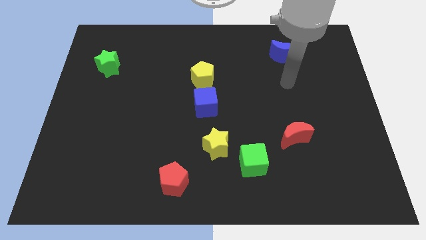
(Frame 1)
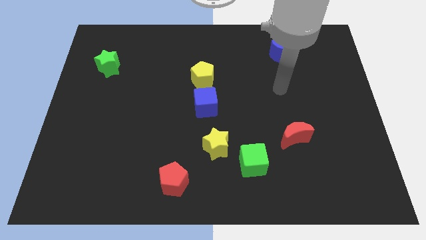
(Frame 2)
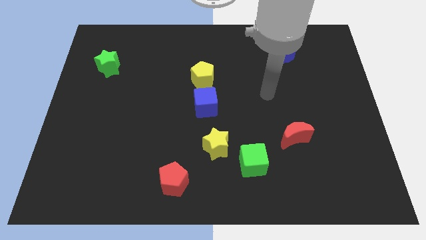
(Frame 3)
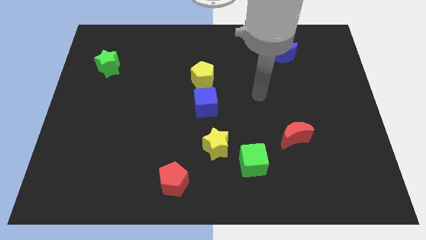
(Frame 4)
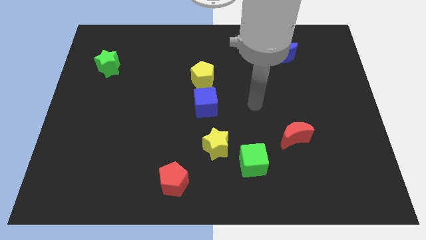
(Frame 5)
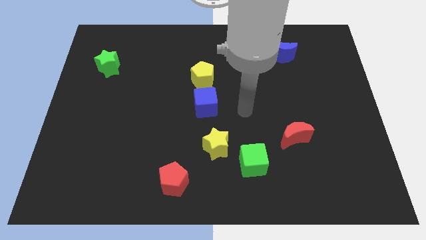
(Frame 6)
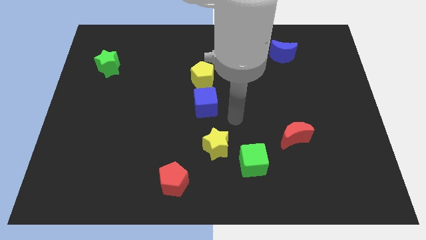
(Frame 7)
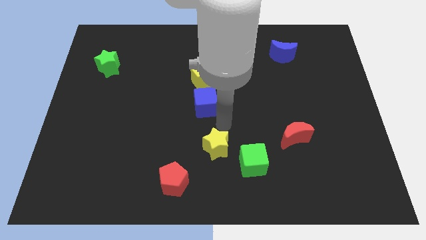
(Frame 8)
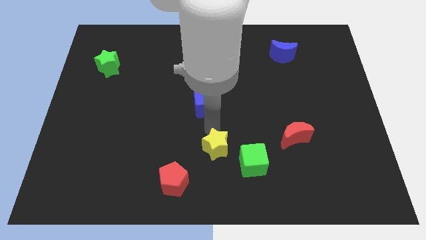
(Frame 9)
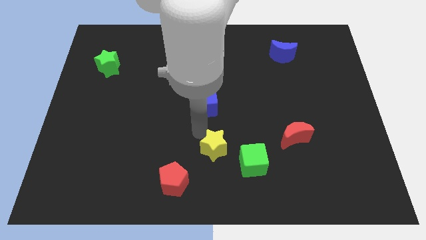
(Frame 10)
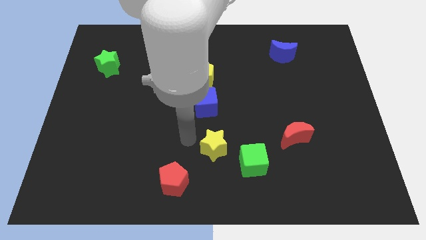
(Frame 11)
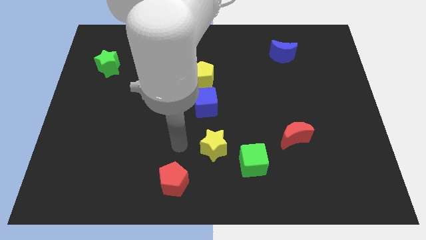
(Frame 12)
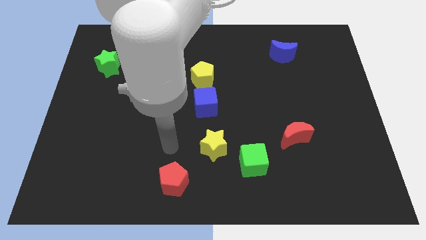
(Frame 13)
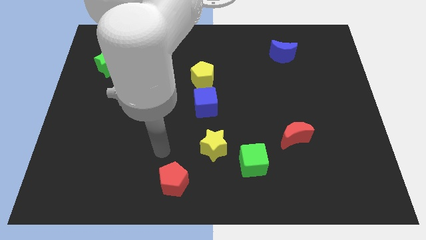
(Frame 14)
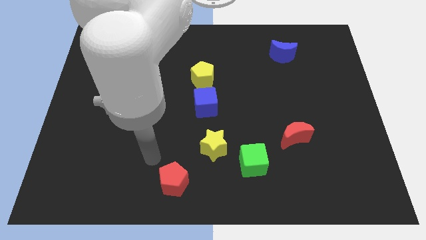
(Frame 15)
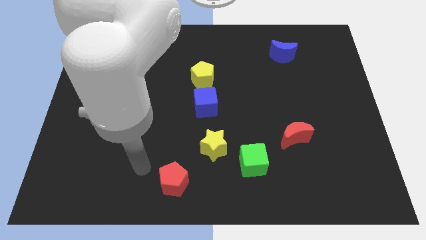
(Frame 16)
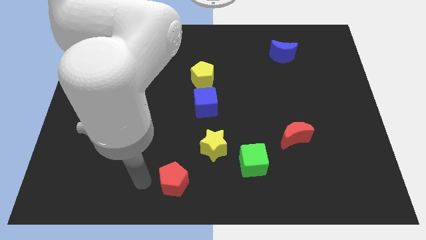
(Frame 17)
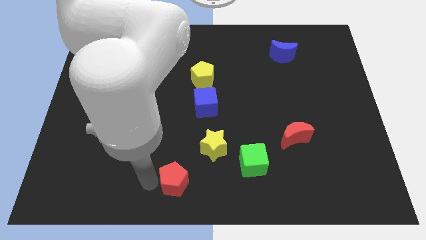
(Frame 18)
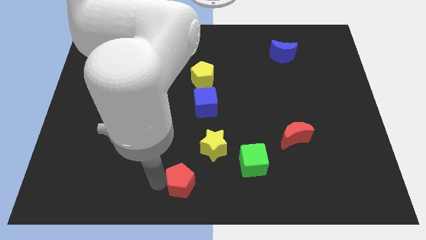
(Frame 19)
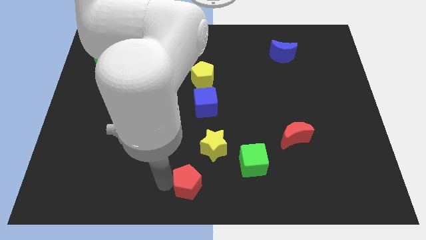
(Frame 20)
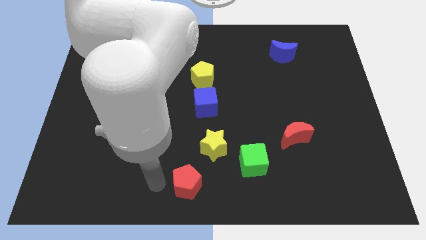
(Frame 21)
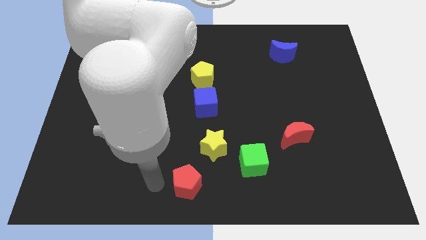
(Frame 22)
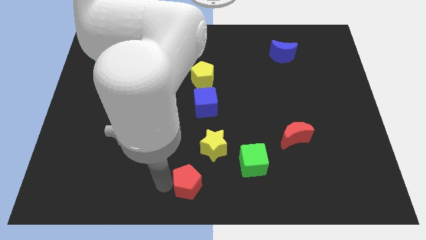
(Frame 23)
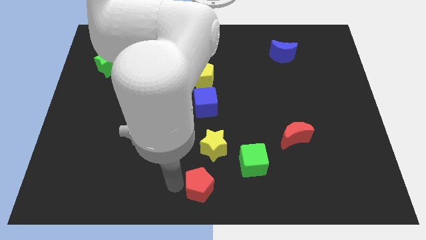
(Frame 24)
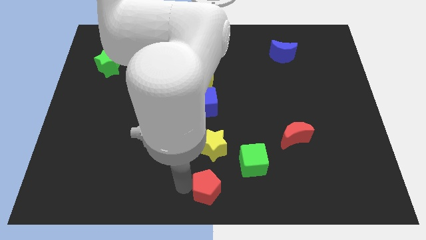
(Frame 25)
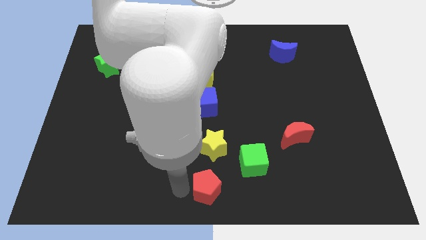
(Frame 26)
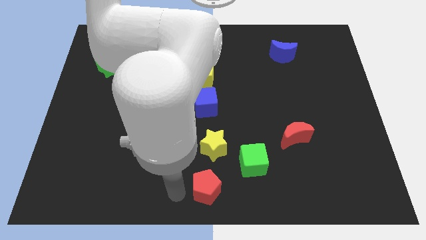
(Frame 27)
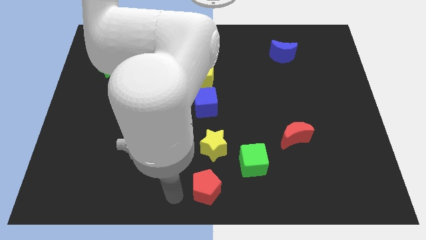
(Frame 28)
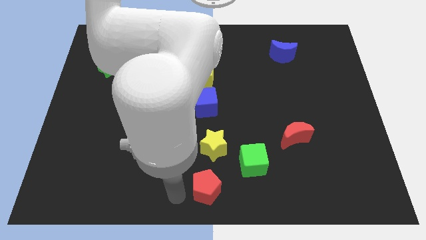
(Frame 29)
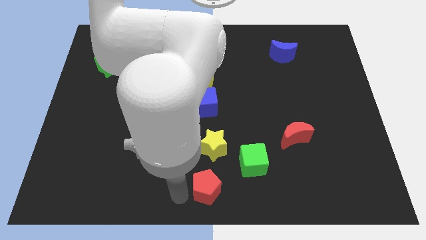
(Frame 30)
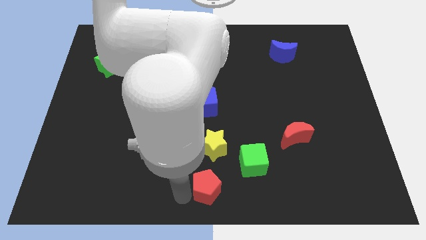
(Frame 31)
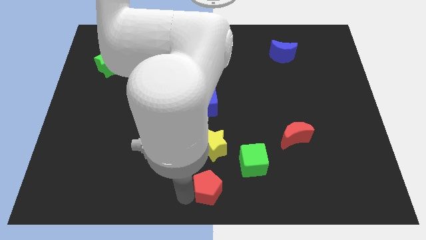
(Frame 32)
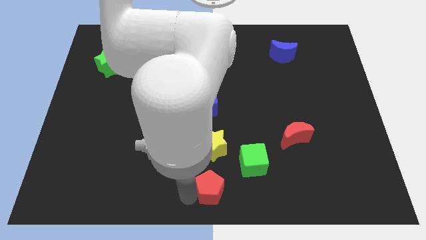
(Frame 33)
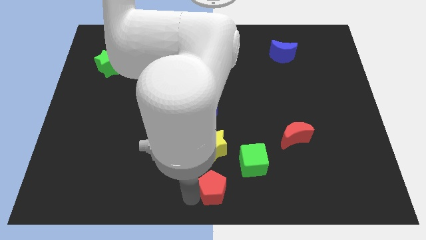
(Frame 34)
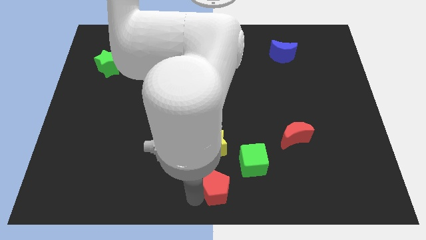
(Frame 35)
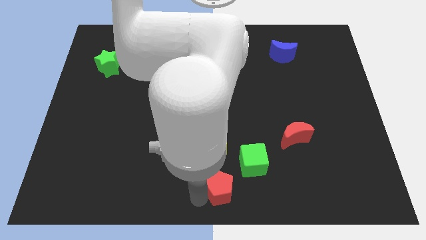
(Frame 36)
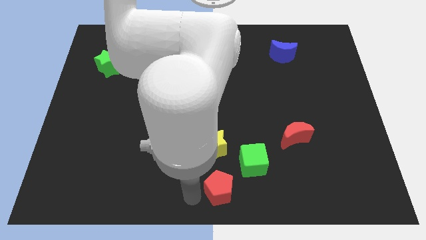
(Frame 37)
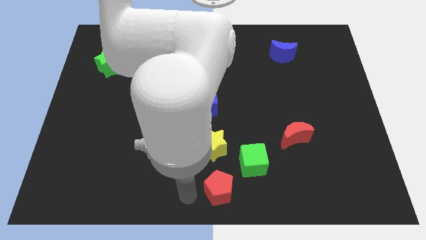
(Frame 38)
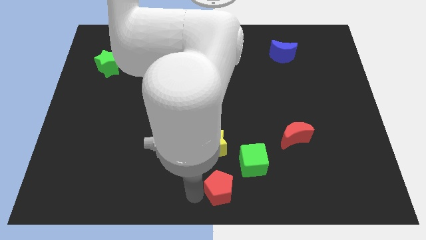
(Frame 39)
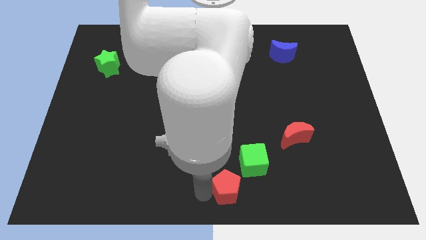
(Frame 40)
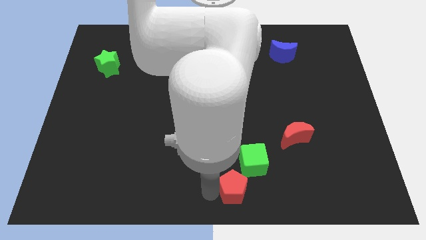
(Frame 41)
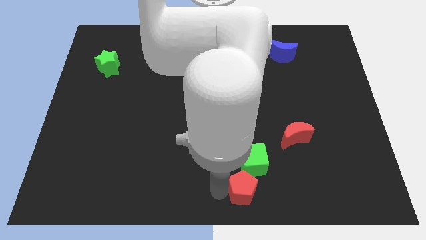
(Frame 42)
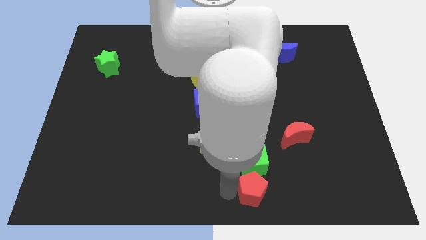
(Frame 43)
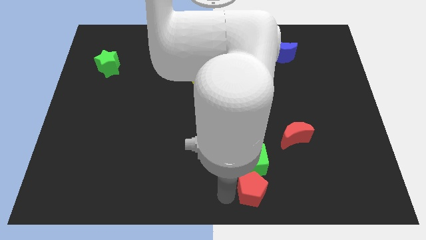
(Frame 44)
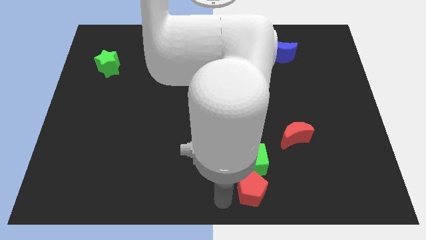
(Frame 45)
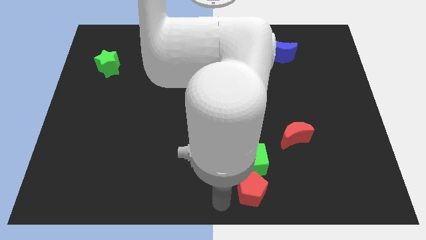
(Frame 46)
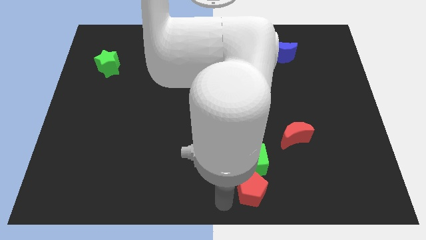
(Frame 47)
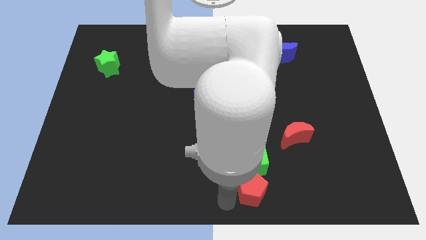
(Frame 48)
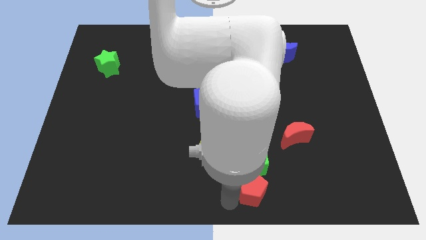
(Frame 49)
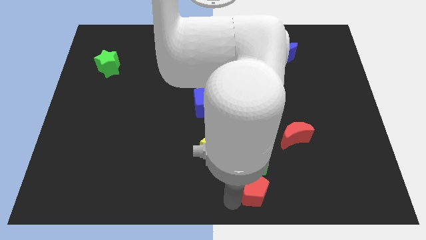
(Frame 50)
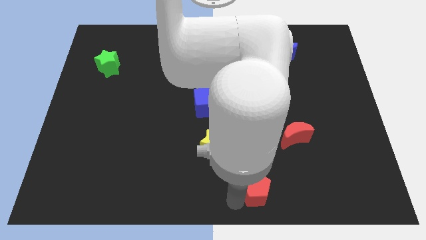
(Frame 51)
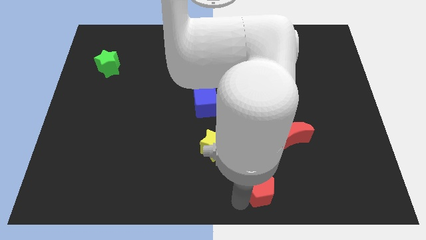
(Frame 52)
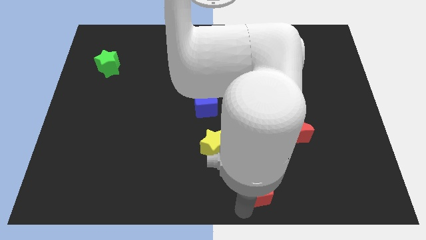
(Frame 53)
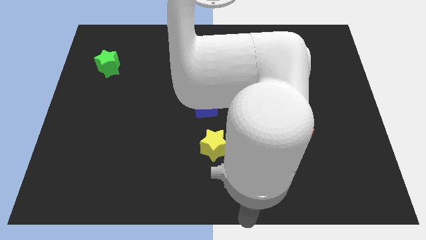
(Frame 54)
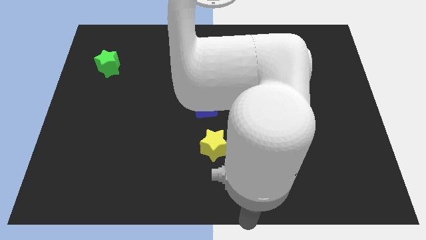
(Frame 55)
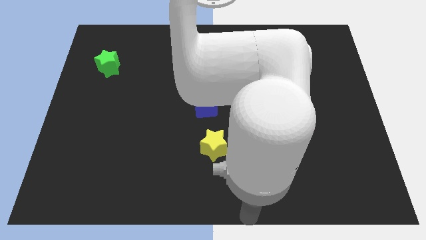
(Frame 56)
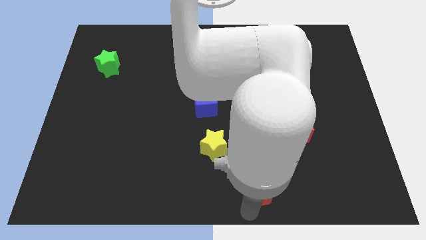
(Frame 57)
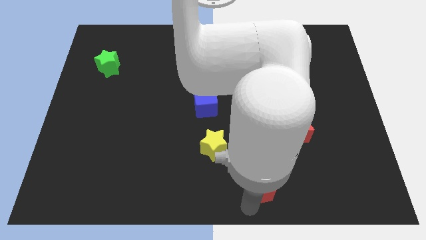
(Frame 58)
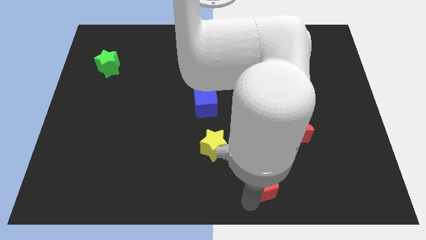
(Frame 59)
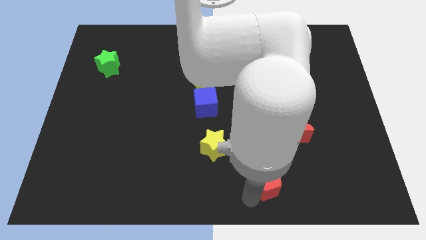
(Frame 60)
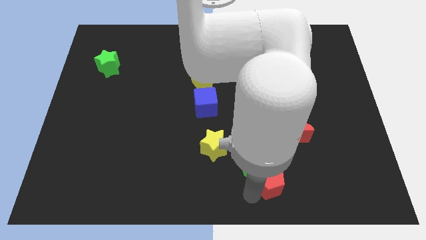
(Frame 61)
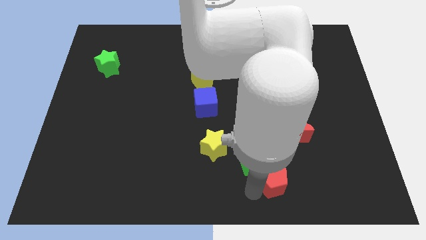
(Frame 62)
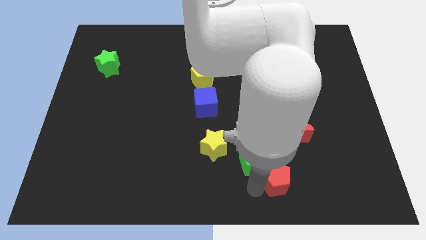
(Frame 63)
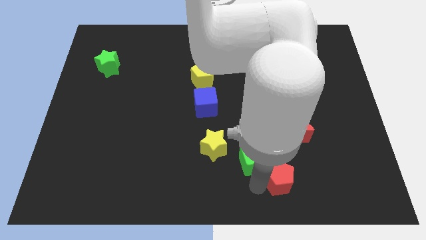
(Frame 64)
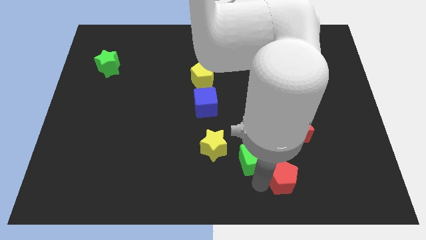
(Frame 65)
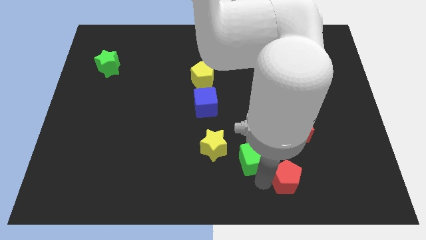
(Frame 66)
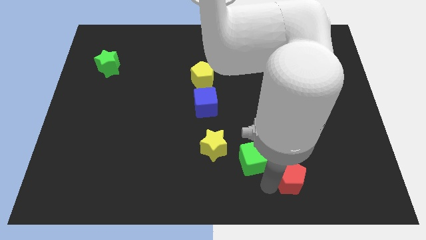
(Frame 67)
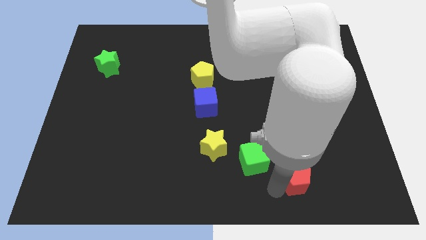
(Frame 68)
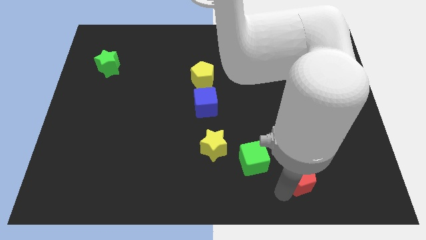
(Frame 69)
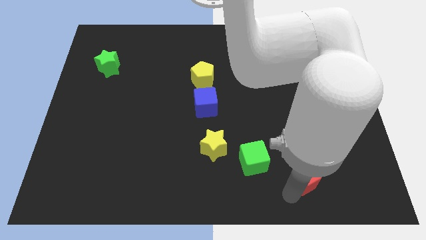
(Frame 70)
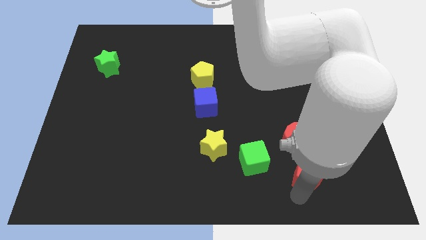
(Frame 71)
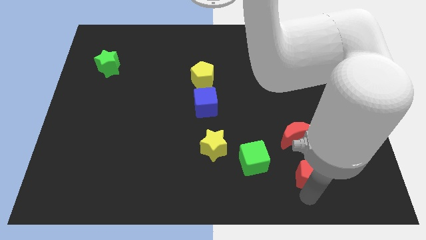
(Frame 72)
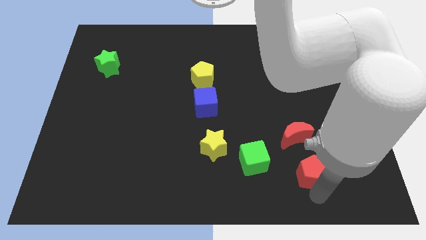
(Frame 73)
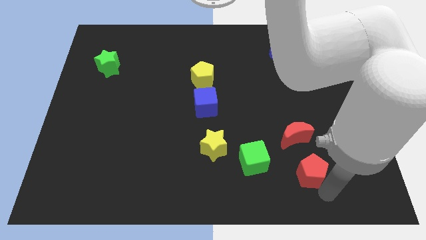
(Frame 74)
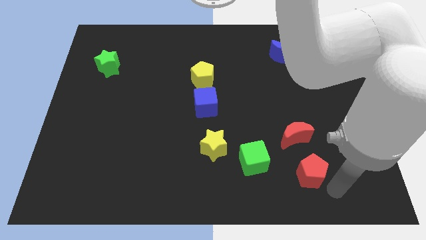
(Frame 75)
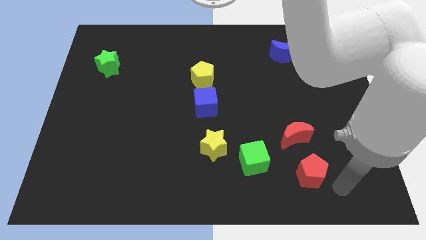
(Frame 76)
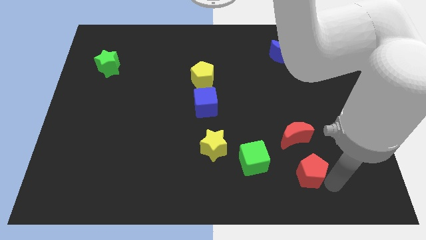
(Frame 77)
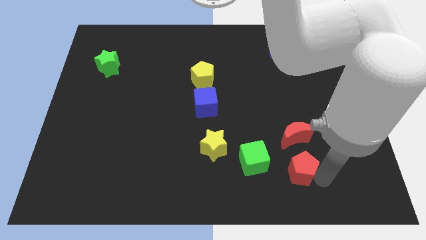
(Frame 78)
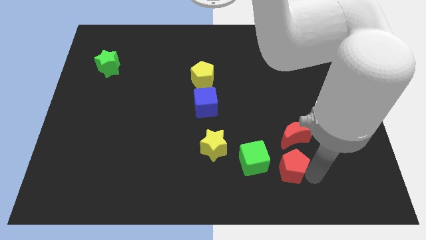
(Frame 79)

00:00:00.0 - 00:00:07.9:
push the red pentagon to the bottom left of the red moon
